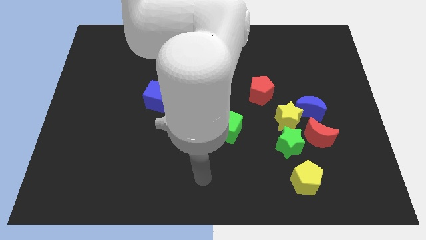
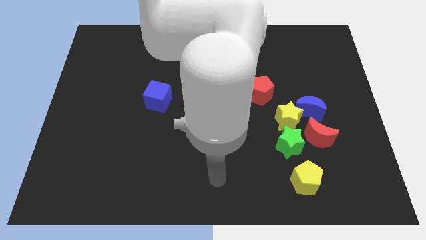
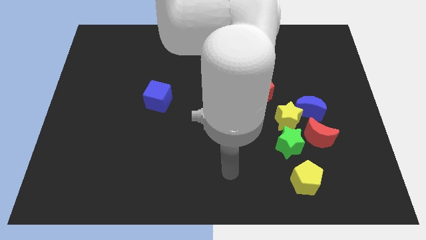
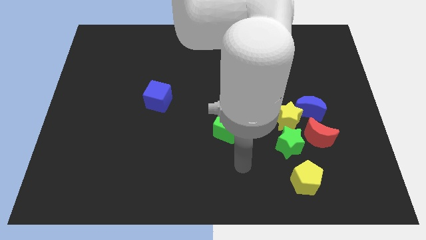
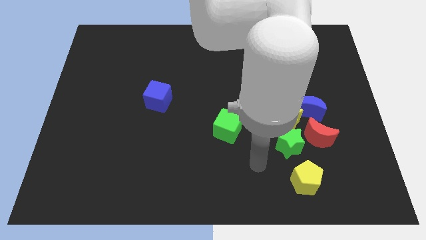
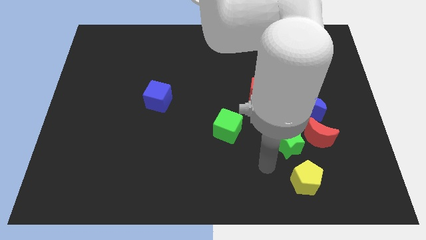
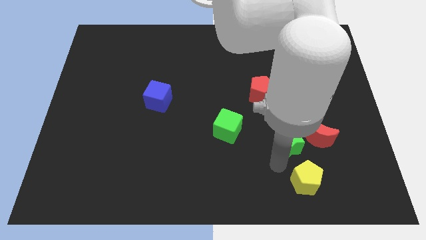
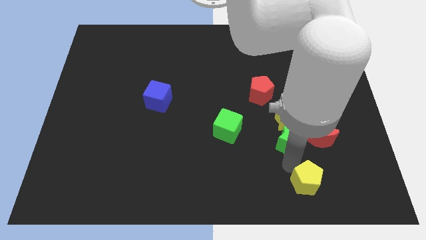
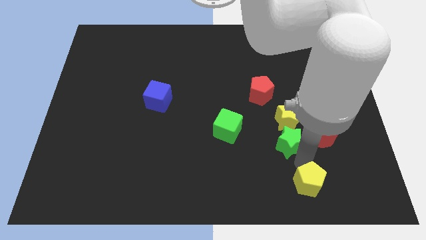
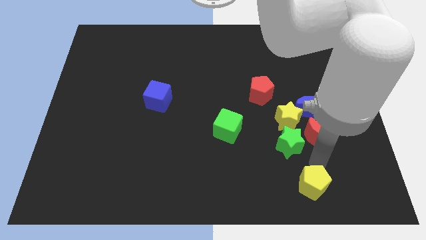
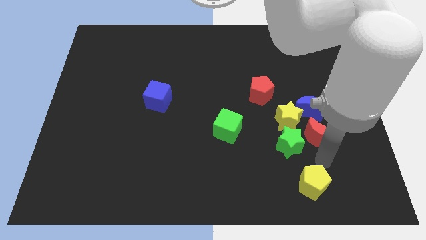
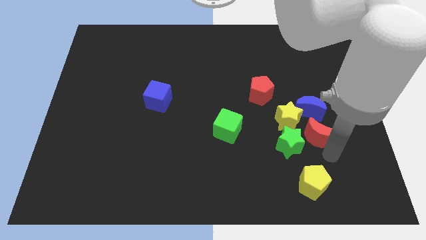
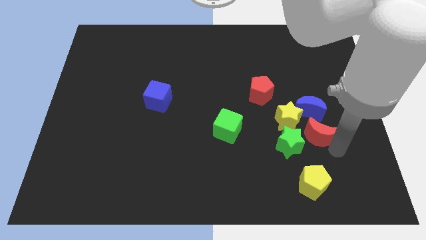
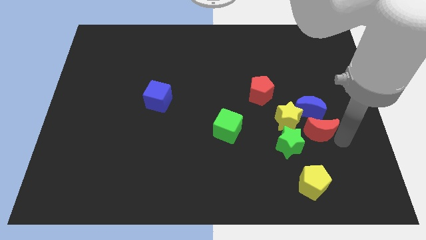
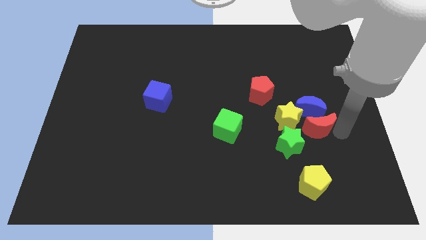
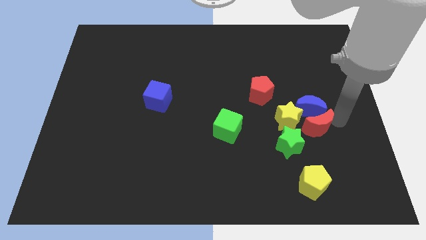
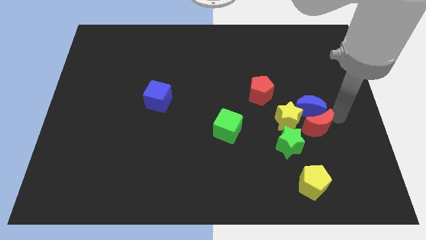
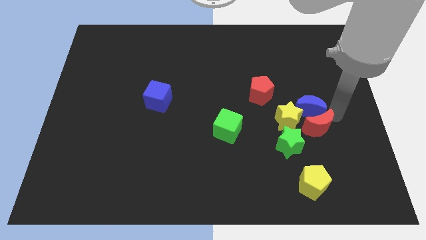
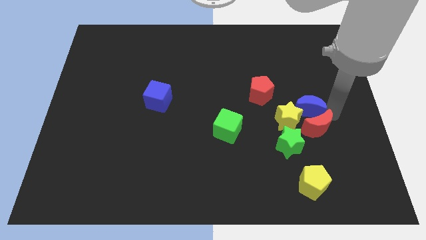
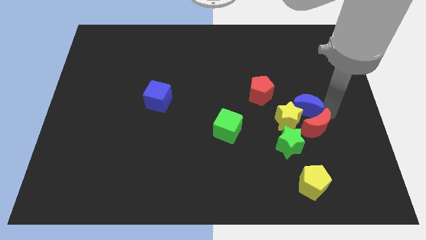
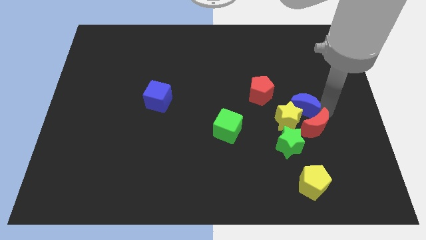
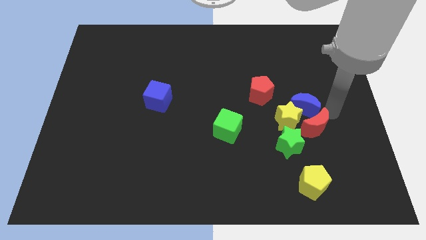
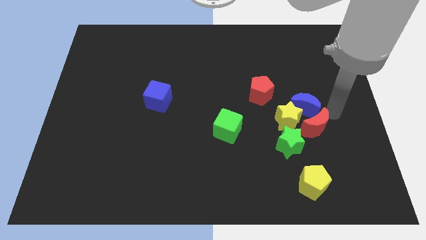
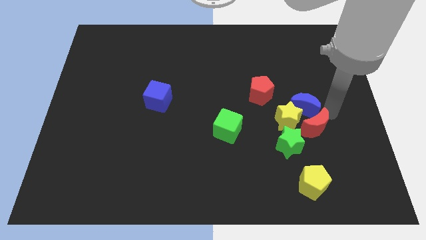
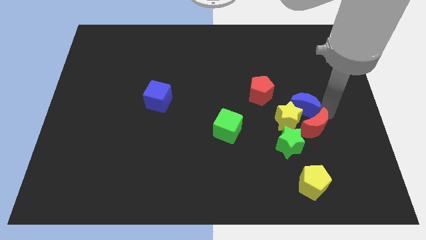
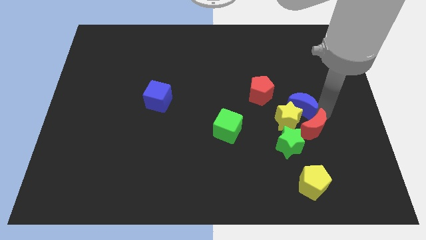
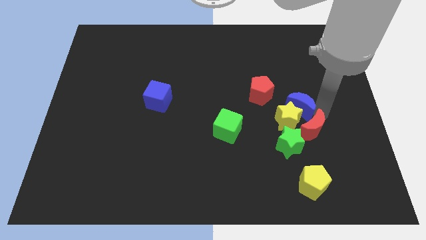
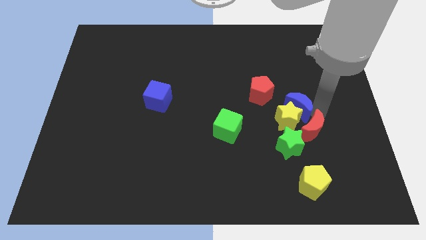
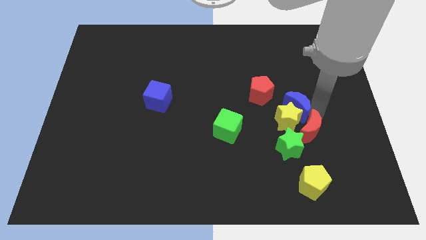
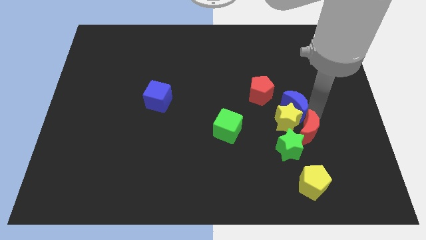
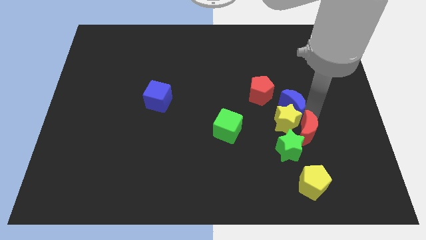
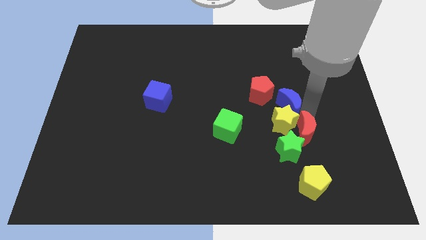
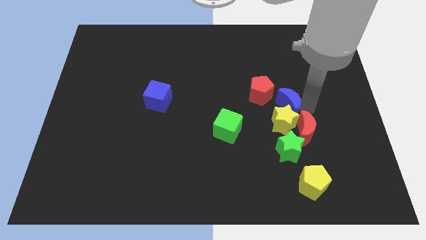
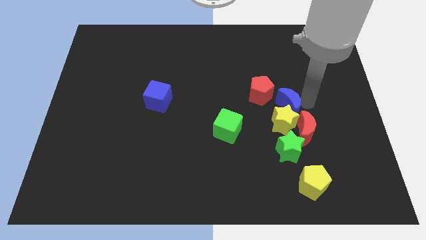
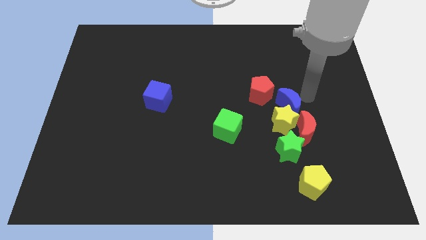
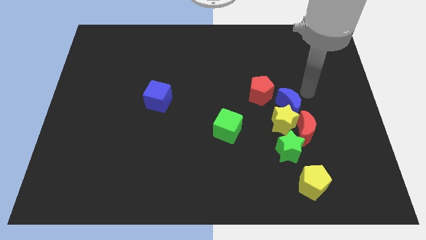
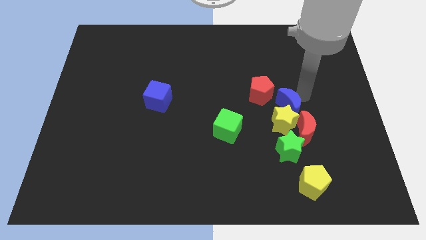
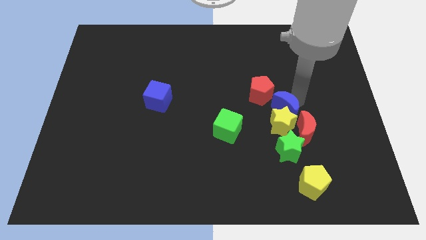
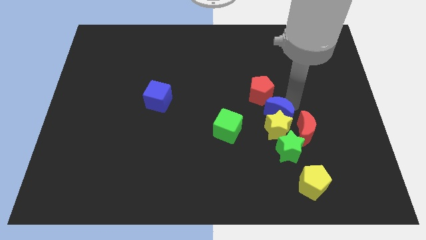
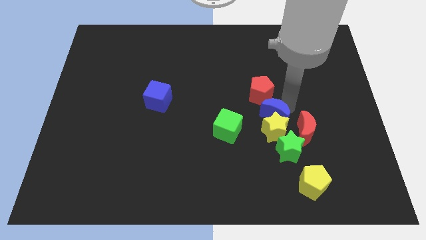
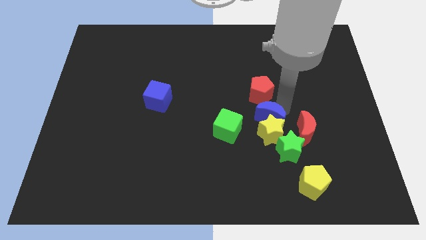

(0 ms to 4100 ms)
slide the blue moon a little bit downwards and then to the left

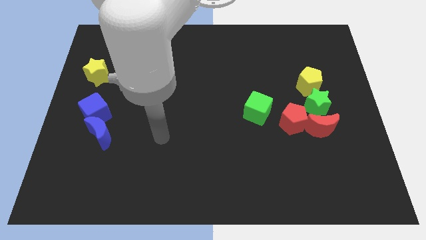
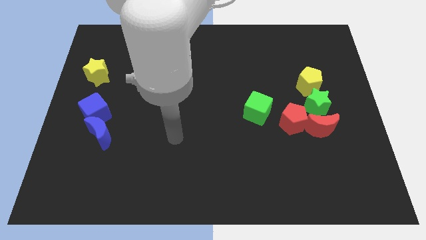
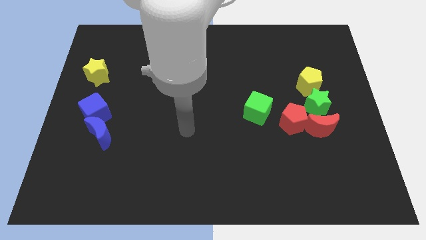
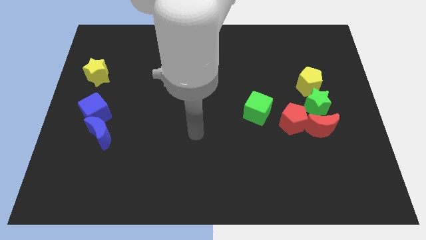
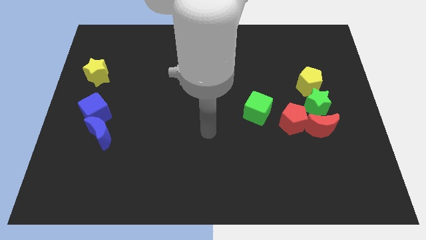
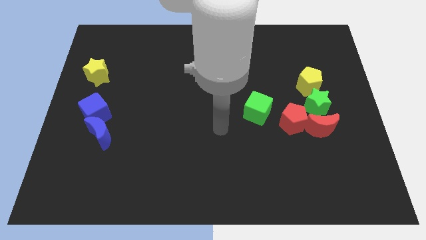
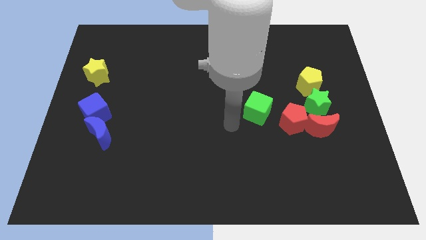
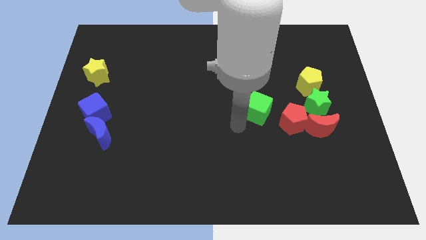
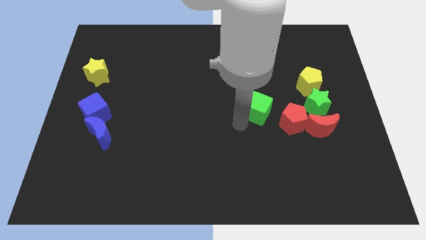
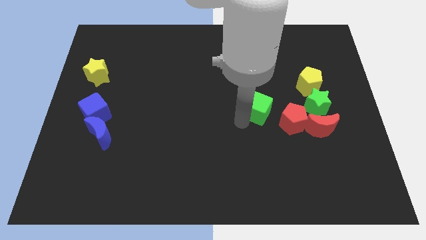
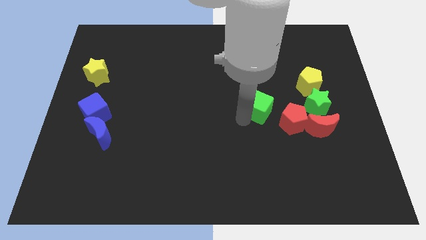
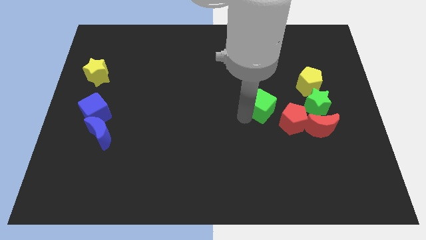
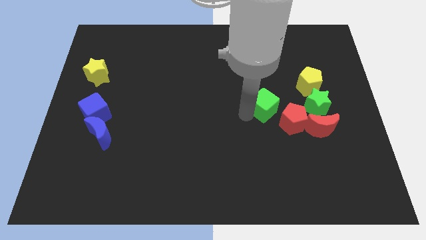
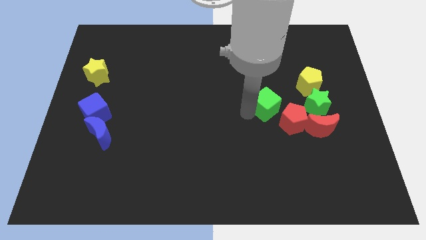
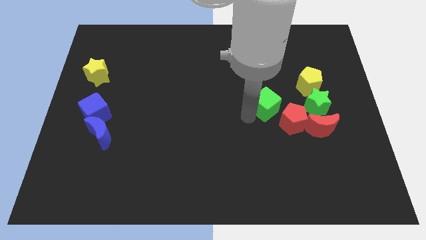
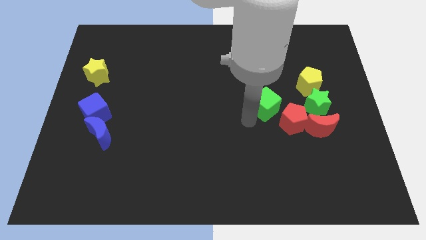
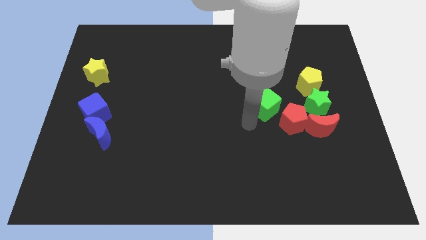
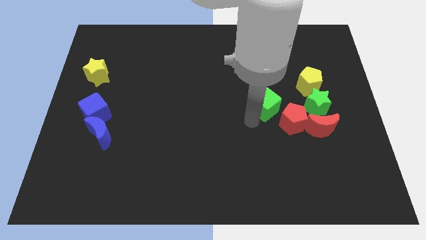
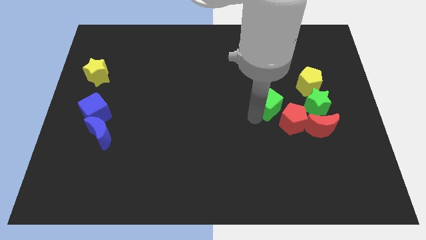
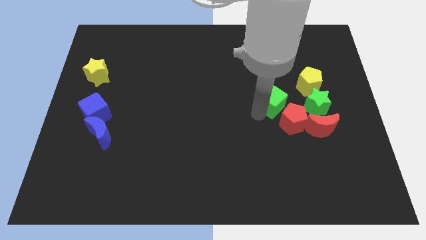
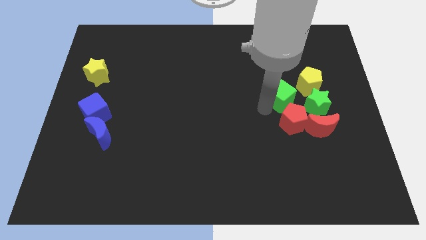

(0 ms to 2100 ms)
slightly move the green cube upwards and to the right diagonally

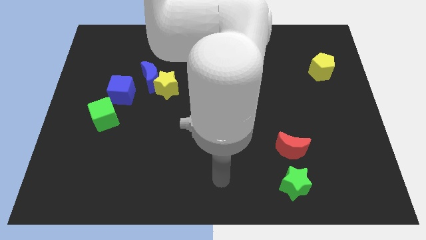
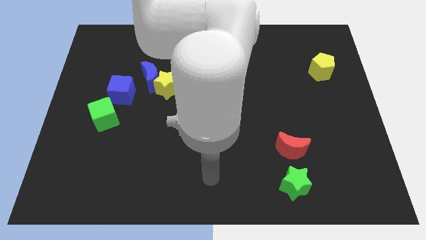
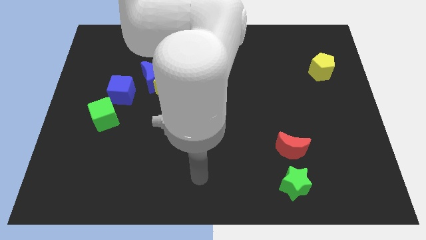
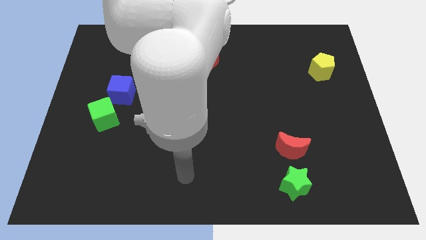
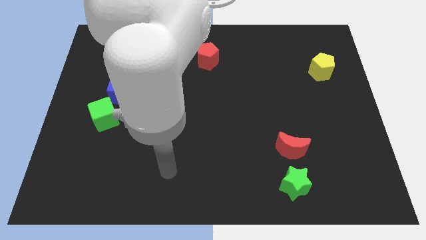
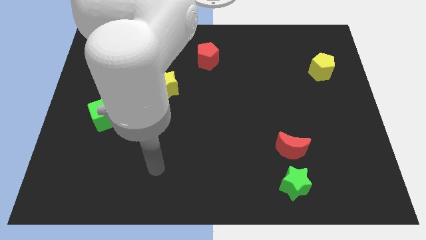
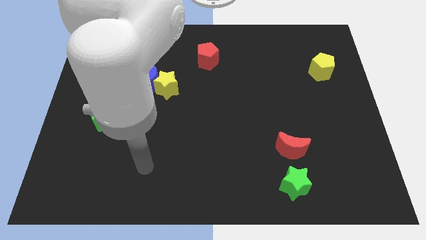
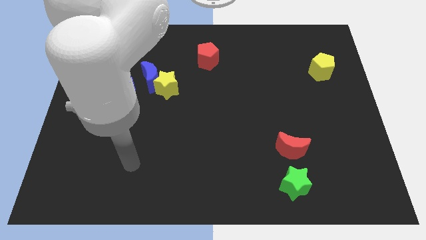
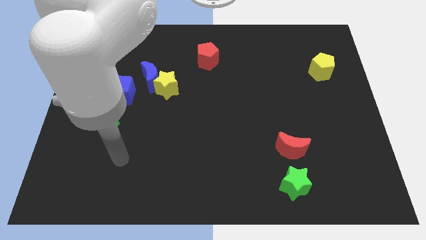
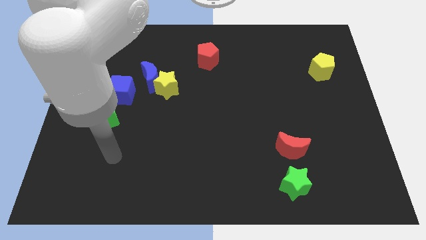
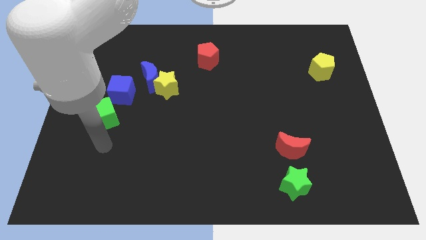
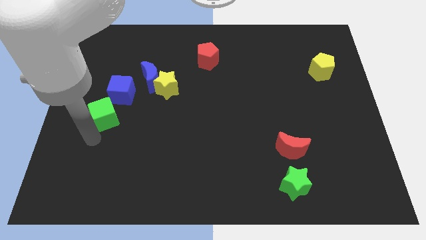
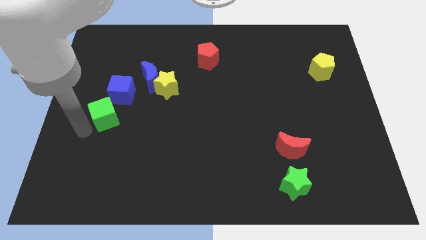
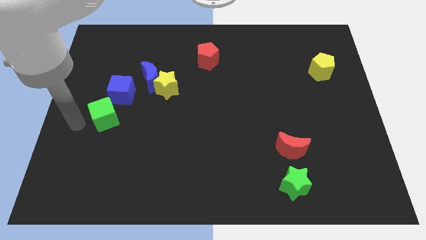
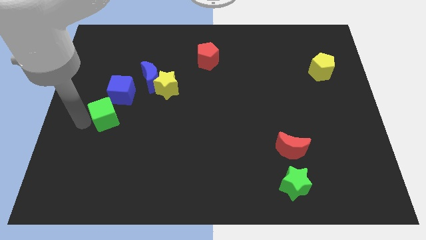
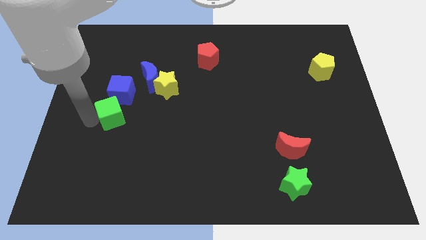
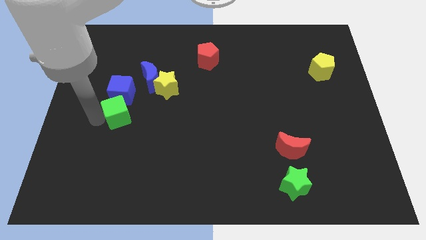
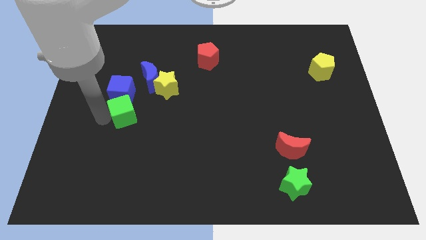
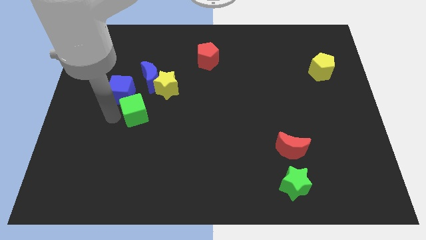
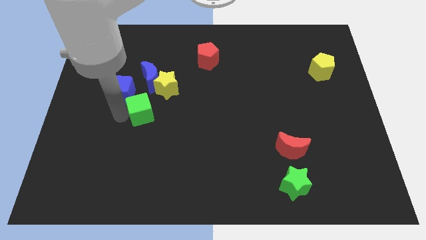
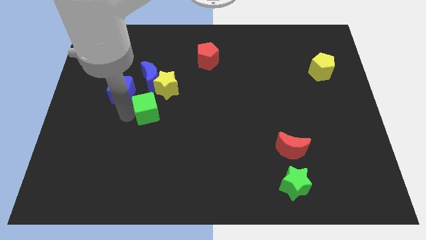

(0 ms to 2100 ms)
move the green cube upwards and to the right slightly

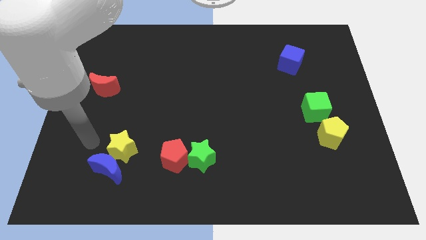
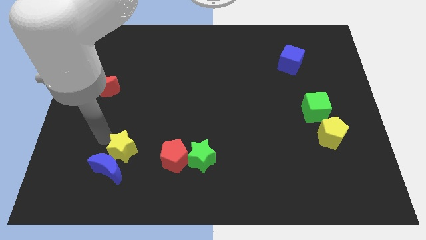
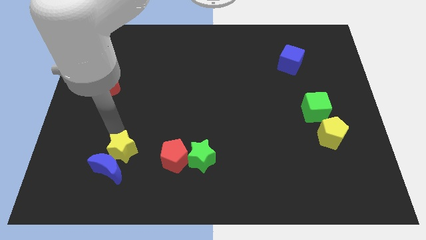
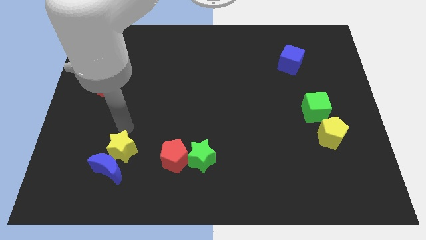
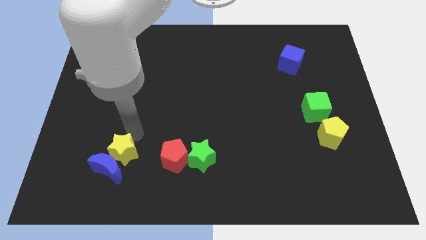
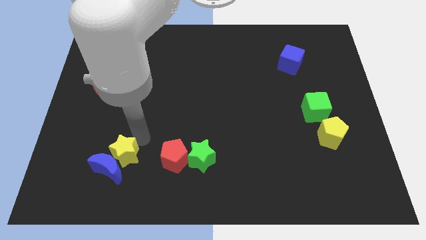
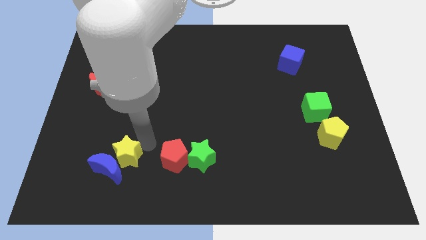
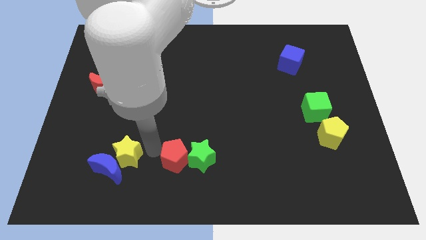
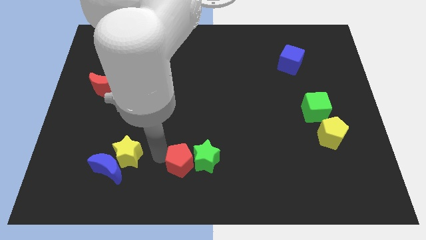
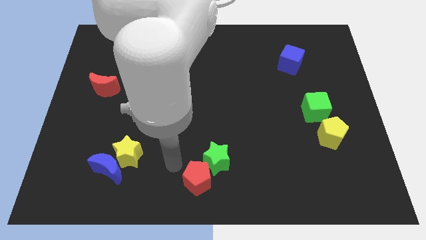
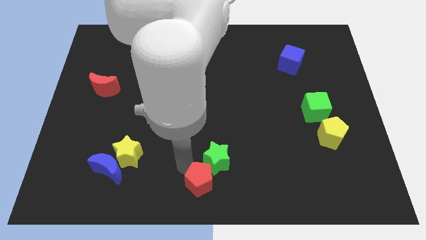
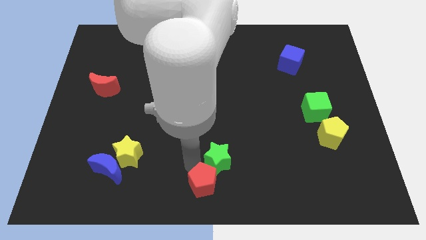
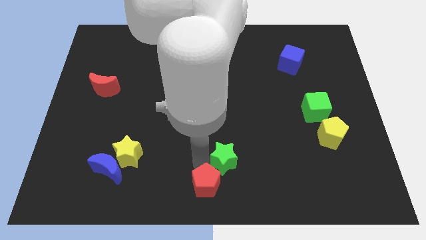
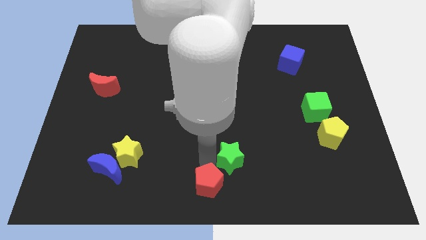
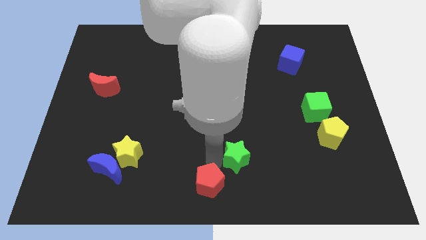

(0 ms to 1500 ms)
slightly slide the green star to the right
